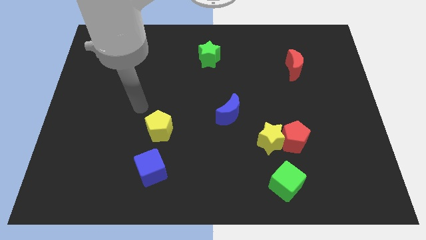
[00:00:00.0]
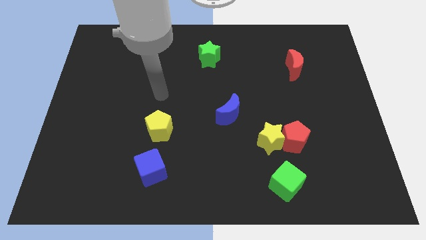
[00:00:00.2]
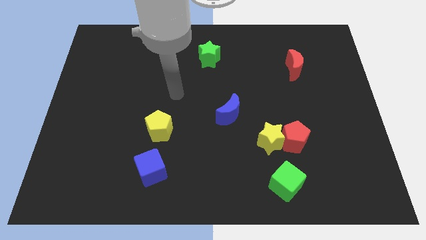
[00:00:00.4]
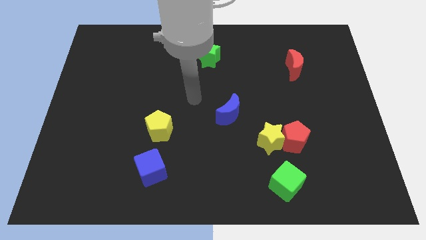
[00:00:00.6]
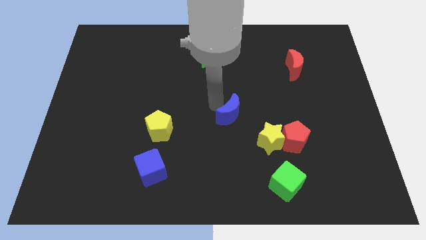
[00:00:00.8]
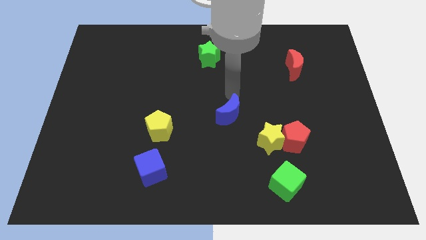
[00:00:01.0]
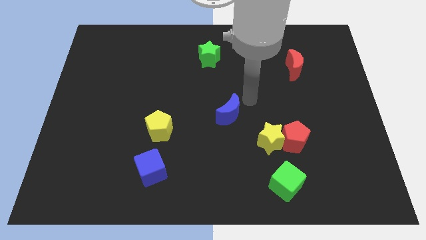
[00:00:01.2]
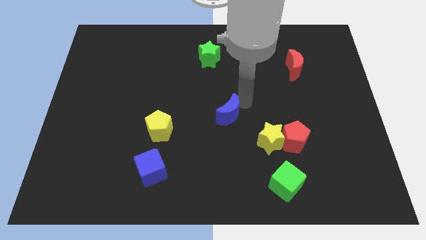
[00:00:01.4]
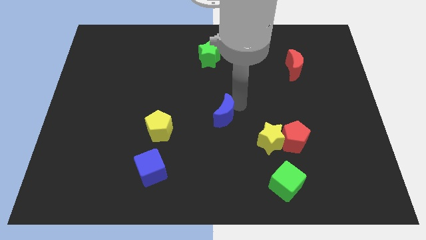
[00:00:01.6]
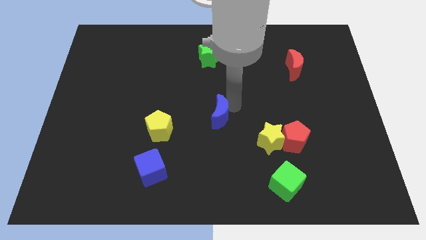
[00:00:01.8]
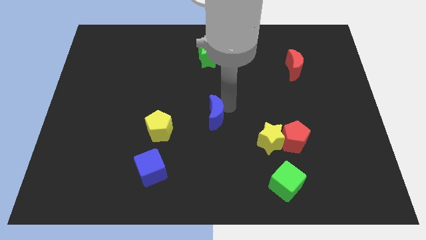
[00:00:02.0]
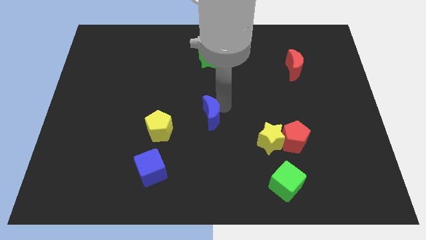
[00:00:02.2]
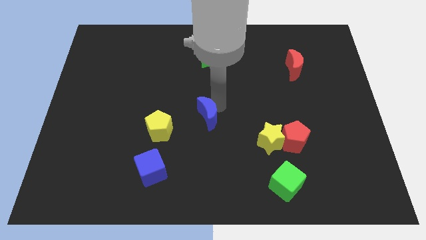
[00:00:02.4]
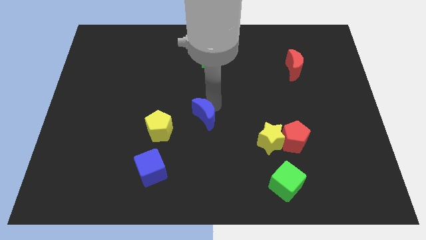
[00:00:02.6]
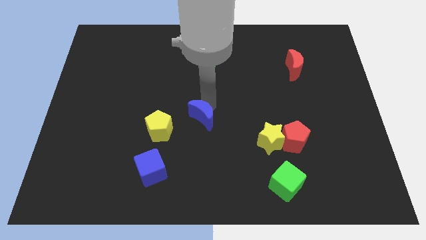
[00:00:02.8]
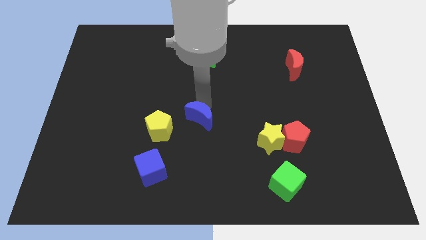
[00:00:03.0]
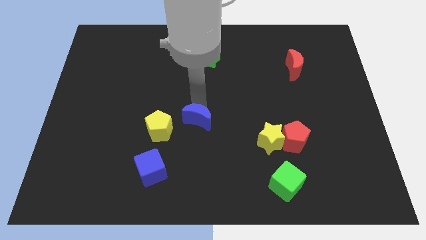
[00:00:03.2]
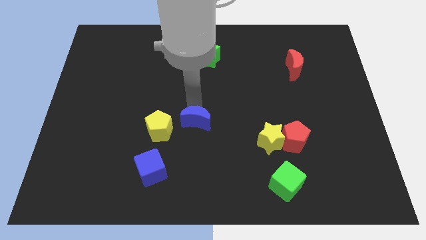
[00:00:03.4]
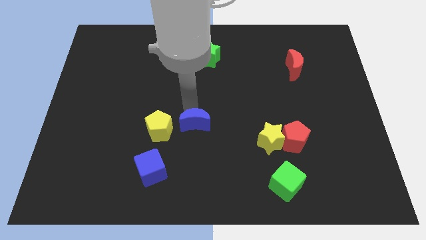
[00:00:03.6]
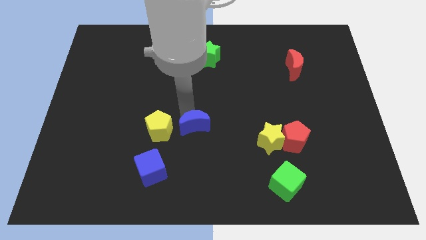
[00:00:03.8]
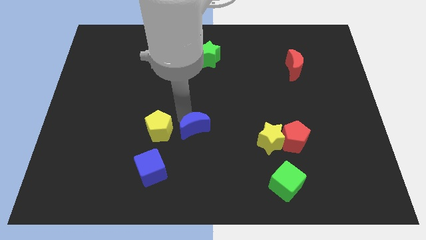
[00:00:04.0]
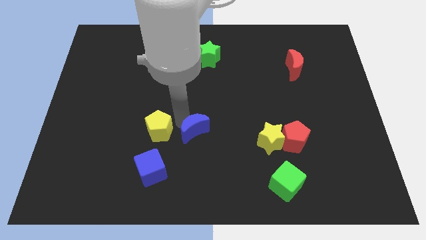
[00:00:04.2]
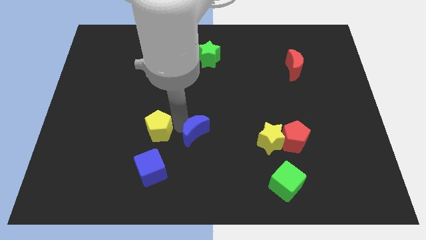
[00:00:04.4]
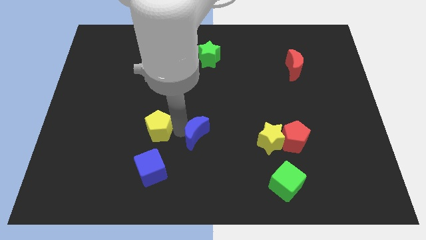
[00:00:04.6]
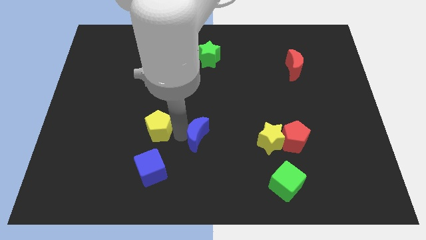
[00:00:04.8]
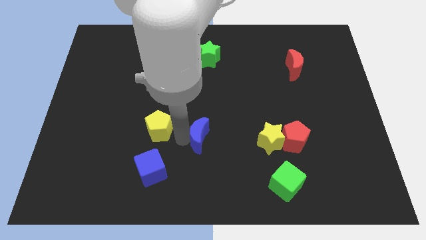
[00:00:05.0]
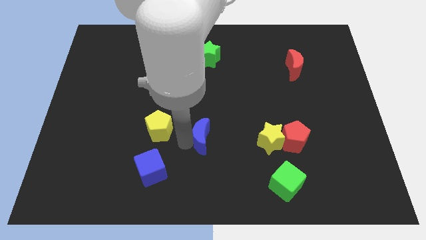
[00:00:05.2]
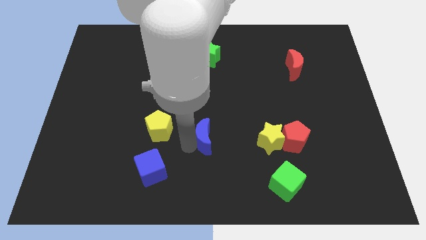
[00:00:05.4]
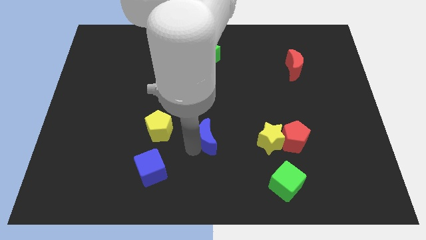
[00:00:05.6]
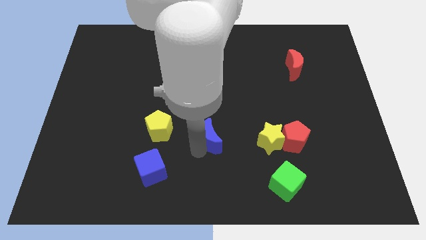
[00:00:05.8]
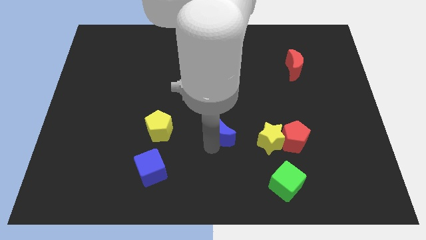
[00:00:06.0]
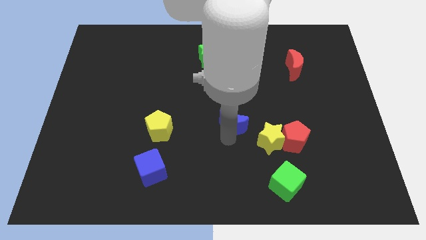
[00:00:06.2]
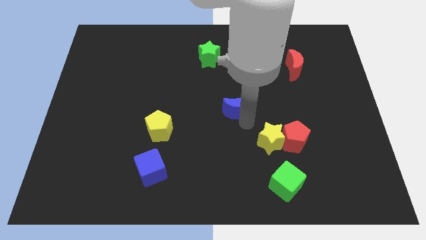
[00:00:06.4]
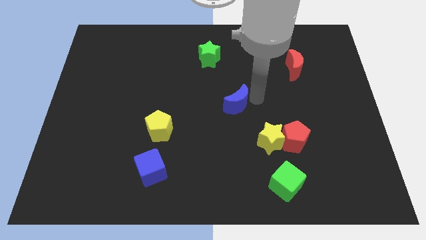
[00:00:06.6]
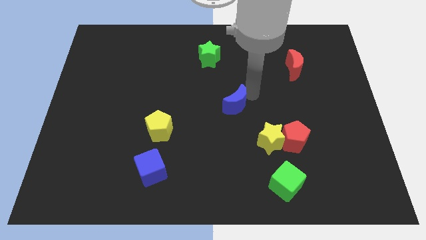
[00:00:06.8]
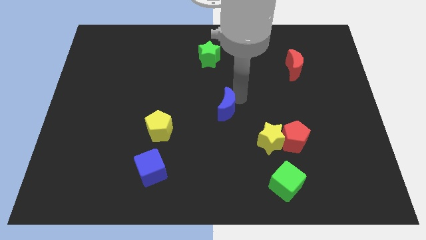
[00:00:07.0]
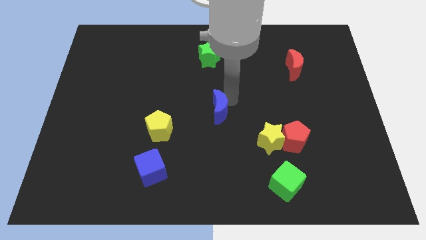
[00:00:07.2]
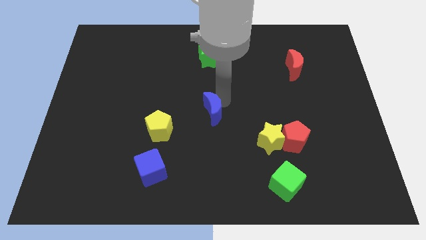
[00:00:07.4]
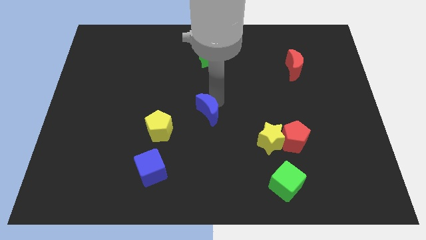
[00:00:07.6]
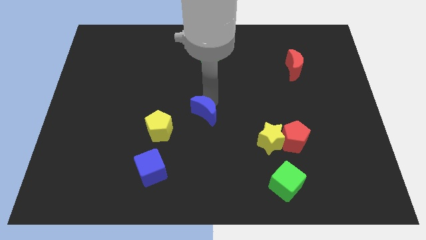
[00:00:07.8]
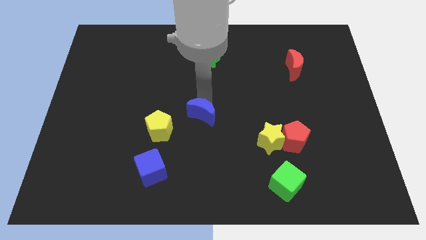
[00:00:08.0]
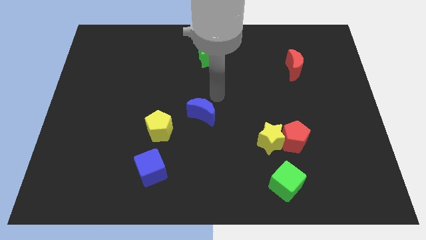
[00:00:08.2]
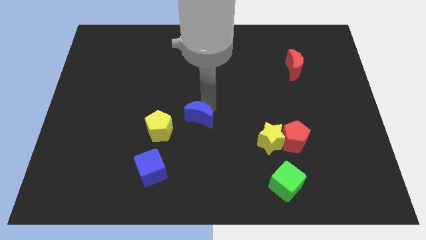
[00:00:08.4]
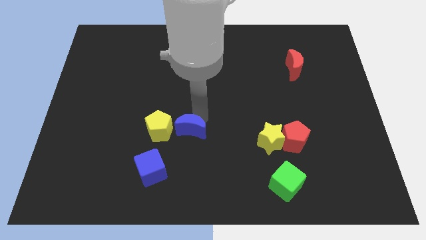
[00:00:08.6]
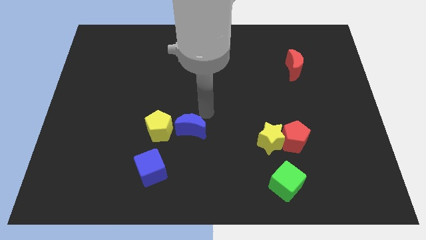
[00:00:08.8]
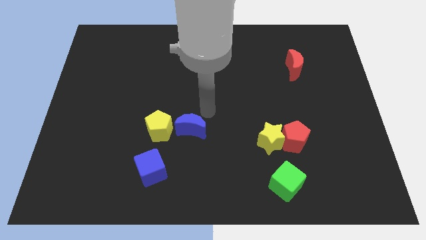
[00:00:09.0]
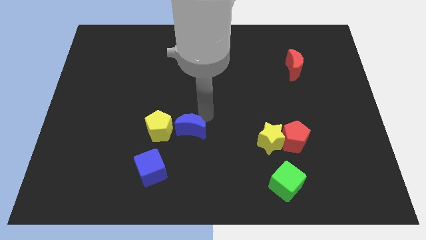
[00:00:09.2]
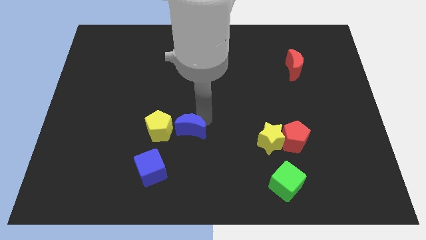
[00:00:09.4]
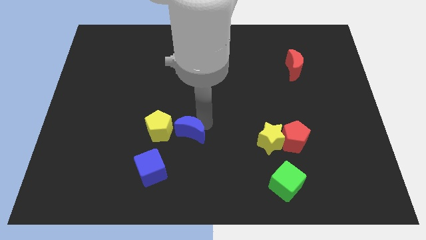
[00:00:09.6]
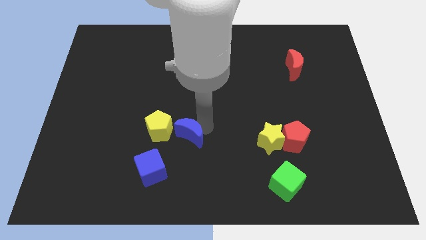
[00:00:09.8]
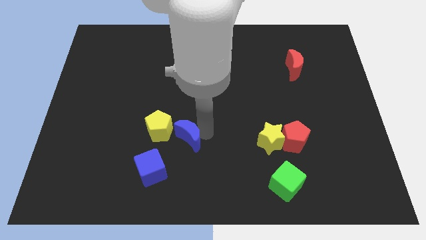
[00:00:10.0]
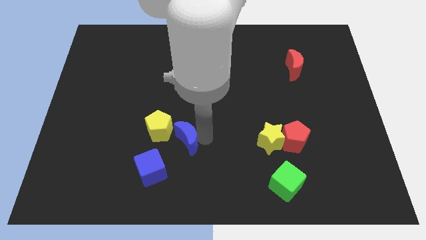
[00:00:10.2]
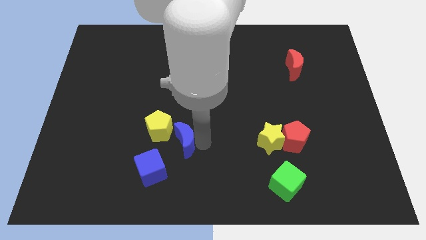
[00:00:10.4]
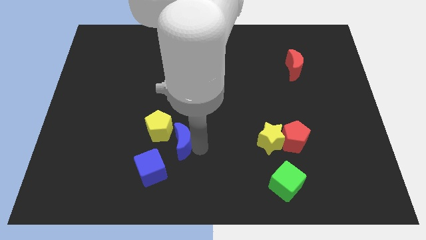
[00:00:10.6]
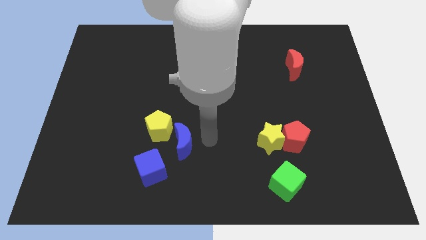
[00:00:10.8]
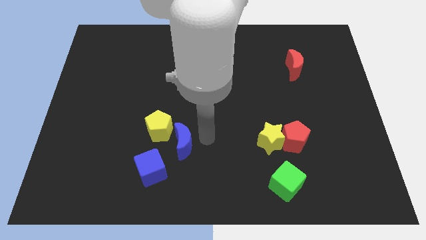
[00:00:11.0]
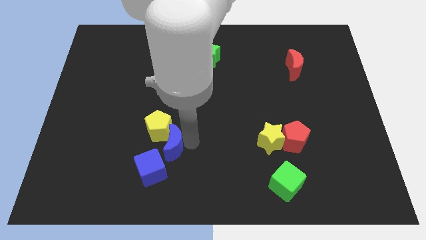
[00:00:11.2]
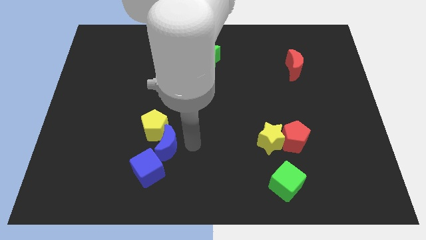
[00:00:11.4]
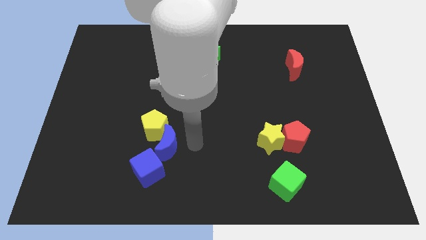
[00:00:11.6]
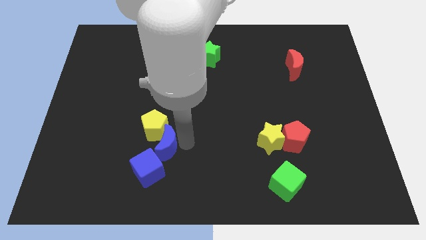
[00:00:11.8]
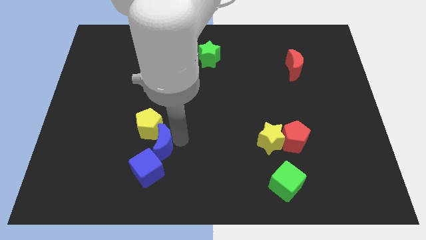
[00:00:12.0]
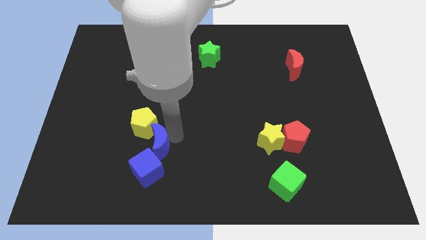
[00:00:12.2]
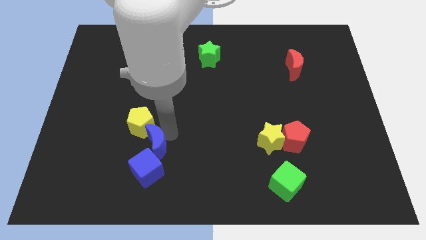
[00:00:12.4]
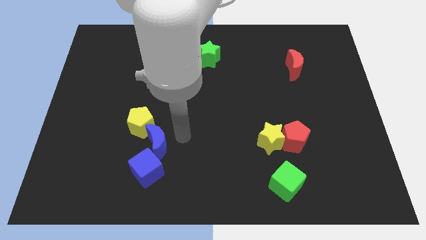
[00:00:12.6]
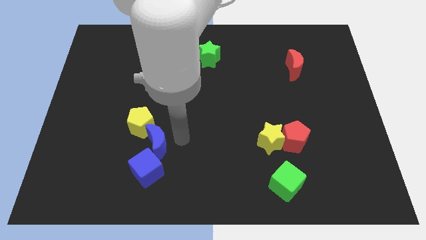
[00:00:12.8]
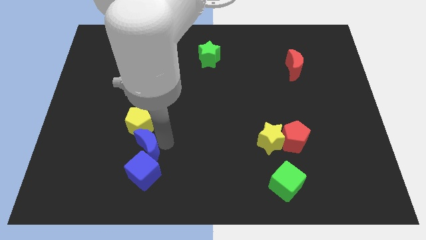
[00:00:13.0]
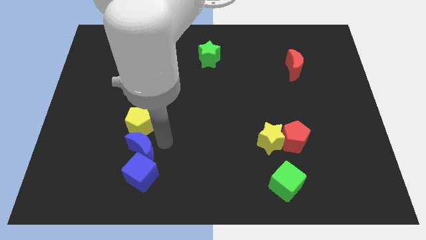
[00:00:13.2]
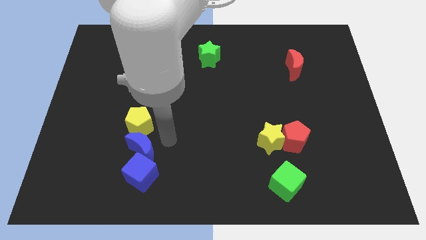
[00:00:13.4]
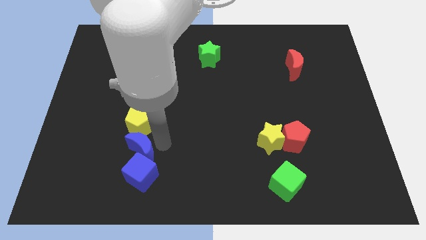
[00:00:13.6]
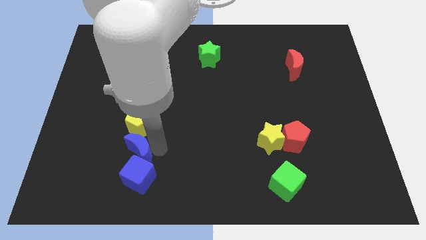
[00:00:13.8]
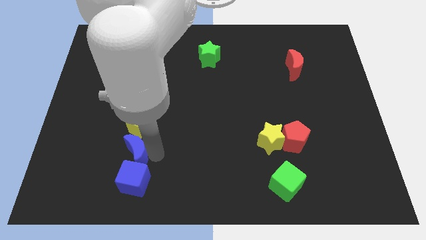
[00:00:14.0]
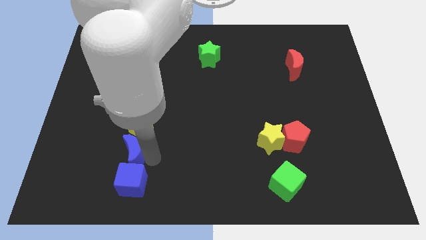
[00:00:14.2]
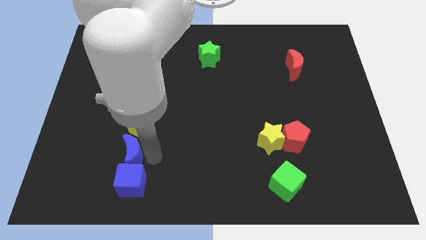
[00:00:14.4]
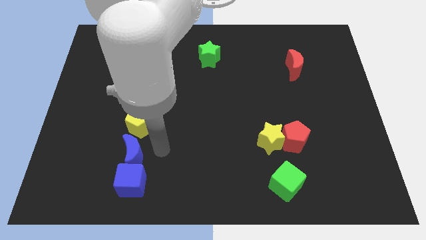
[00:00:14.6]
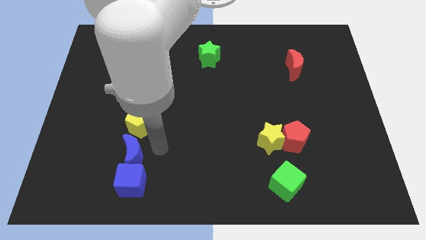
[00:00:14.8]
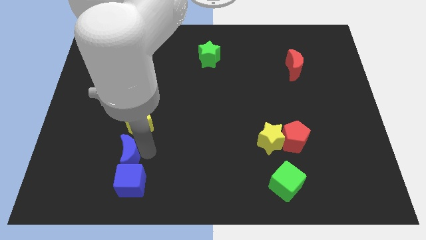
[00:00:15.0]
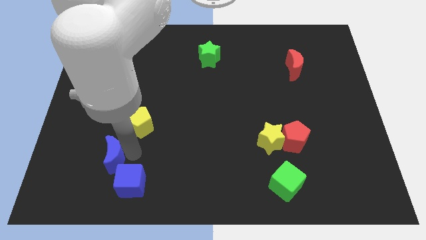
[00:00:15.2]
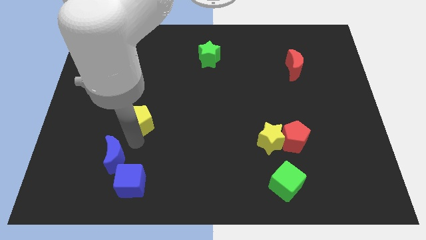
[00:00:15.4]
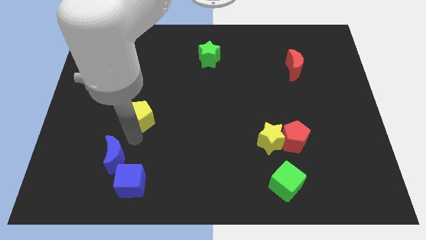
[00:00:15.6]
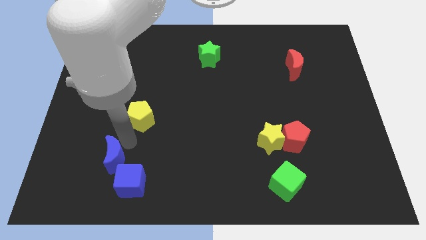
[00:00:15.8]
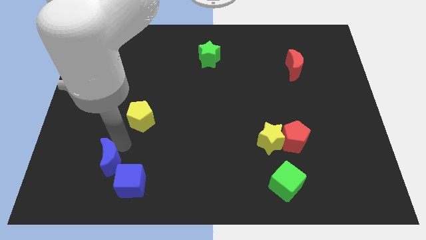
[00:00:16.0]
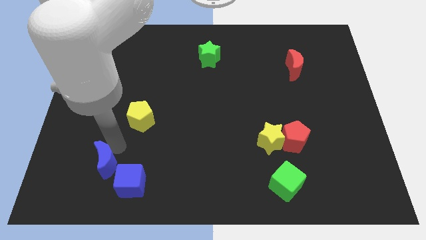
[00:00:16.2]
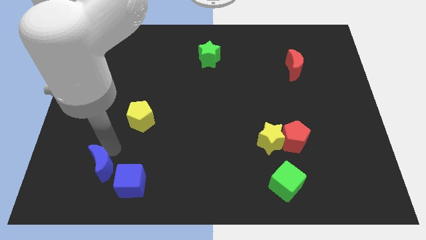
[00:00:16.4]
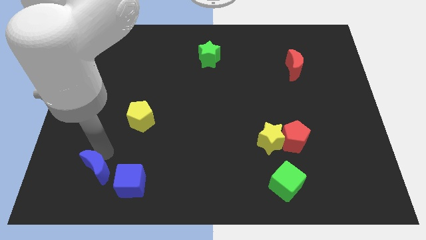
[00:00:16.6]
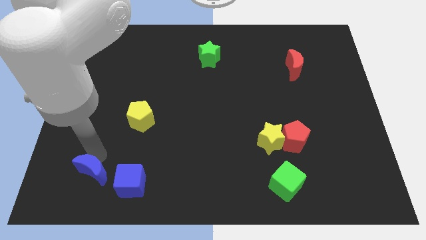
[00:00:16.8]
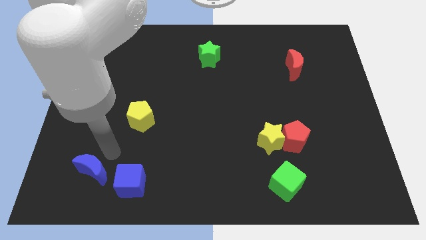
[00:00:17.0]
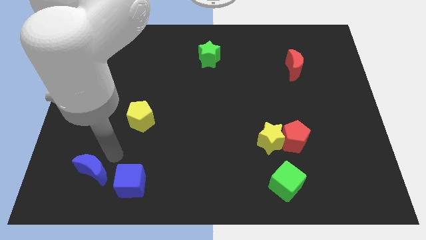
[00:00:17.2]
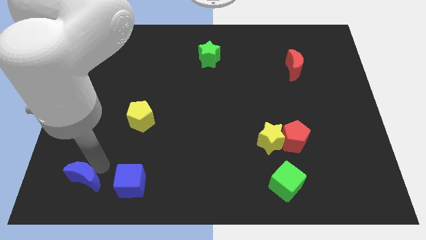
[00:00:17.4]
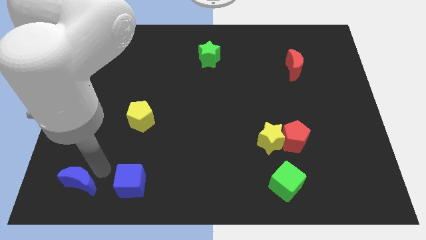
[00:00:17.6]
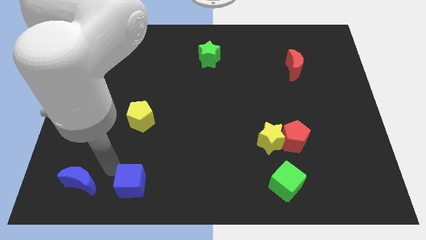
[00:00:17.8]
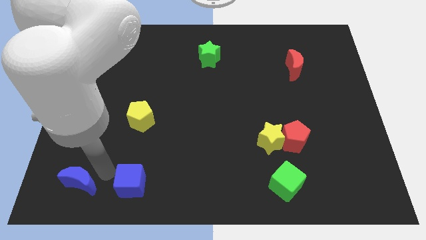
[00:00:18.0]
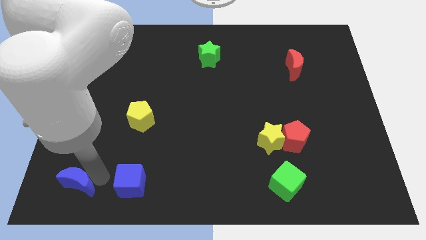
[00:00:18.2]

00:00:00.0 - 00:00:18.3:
put the blue moon to the bottom left of the board
